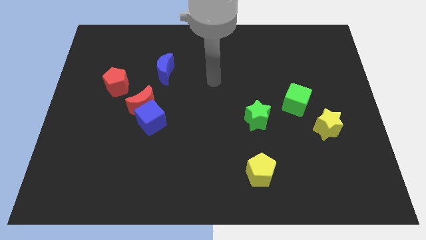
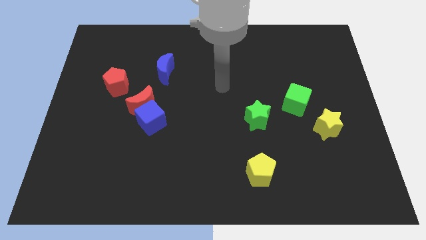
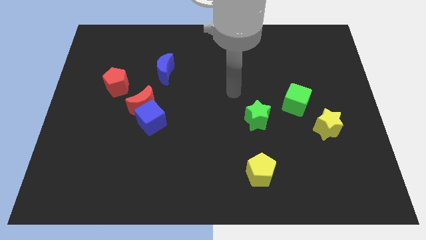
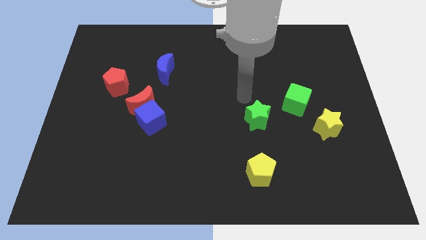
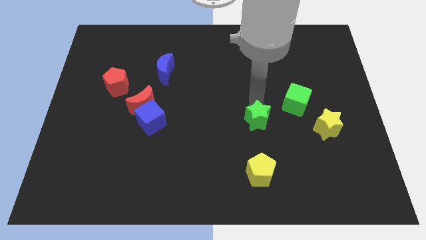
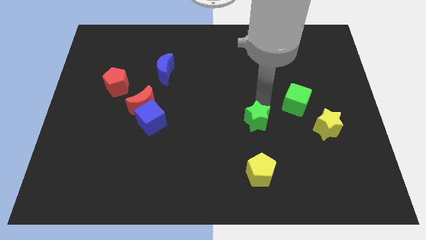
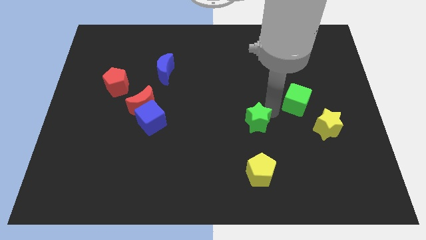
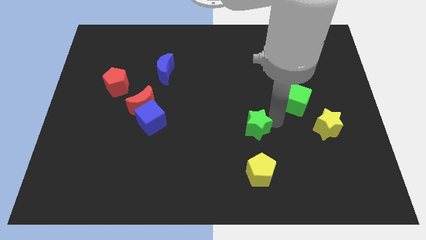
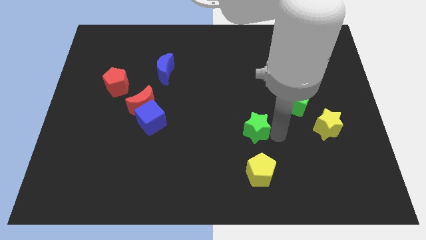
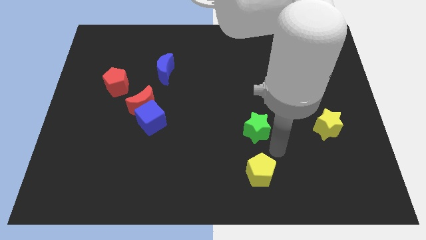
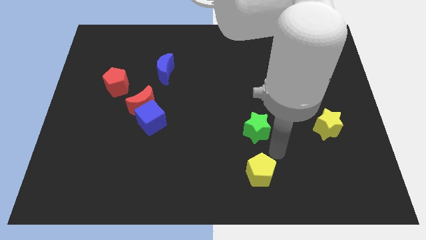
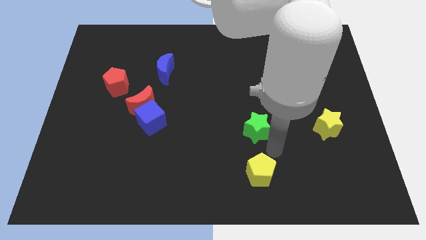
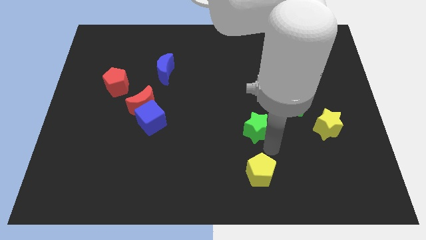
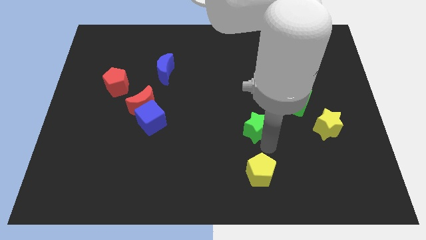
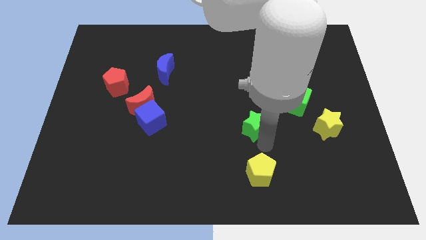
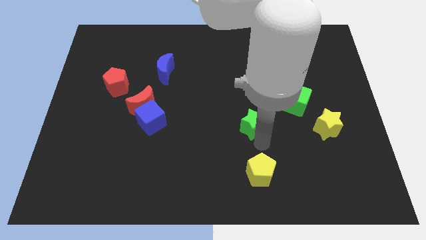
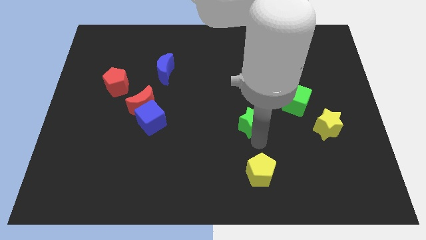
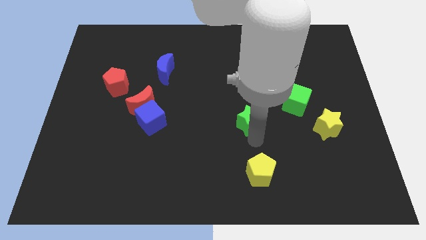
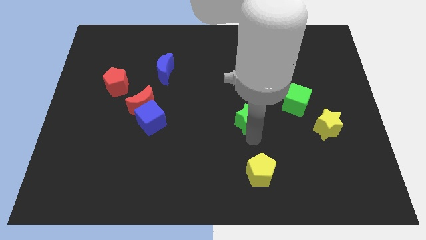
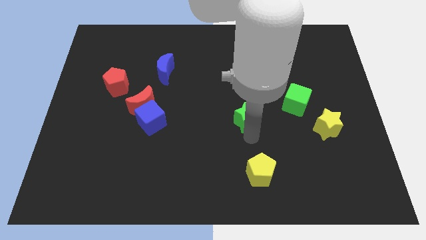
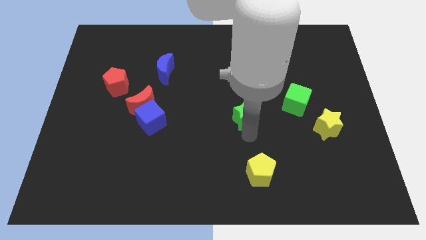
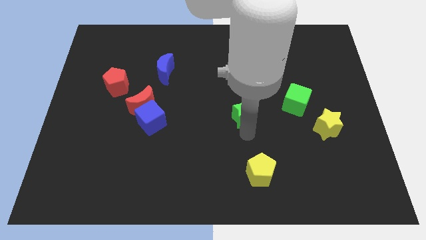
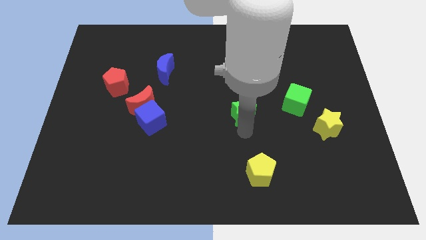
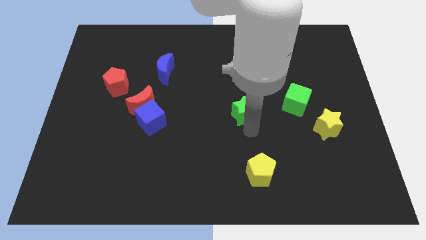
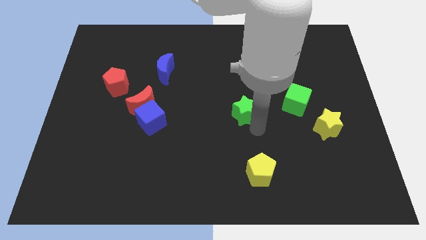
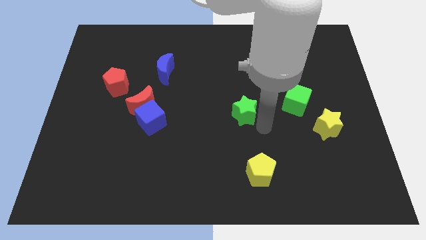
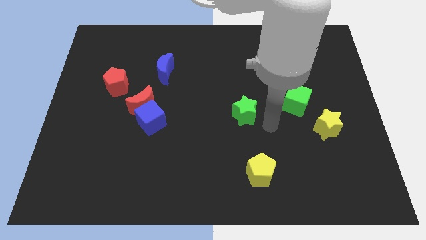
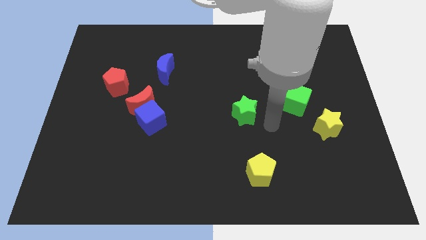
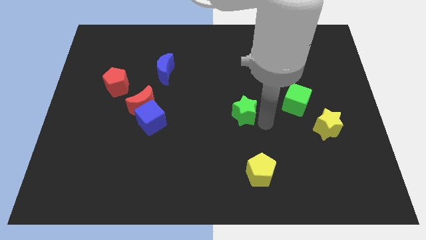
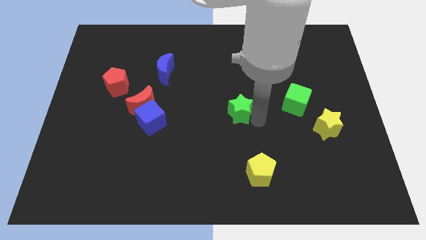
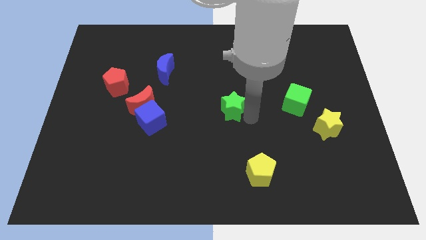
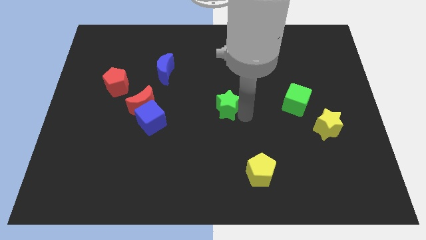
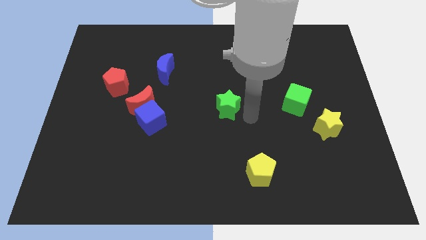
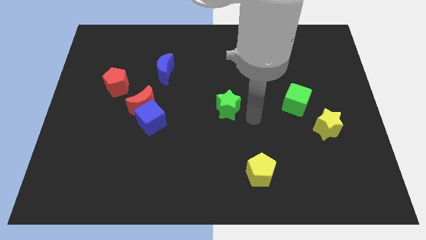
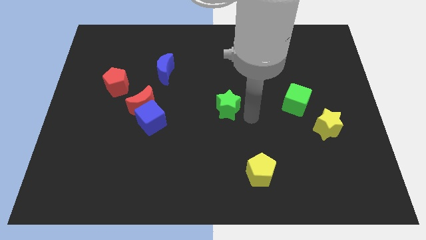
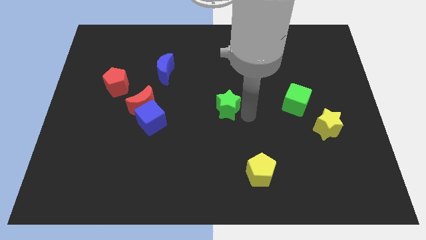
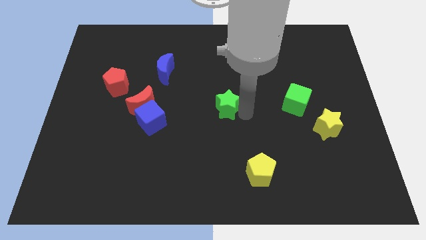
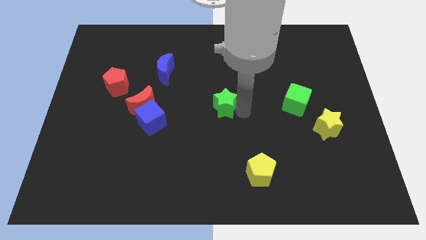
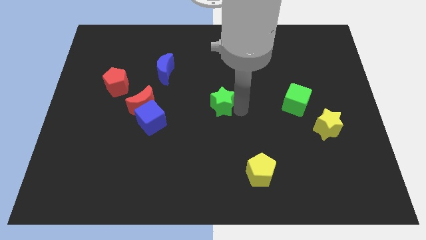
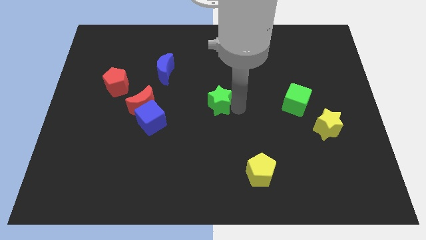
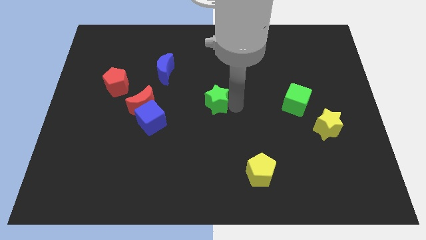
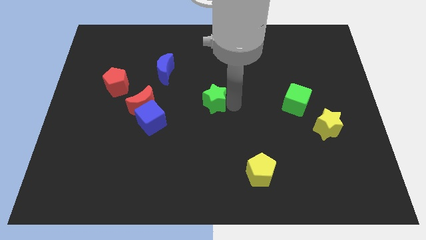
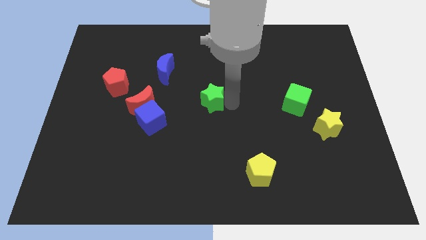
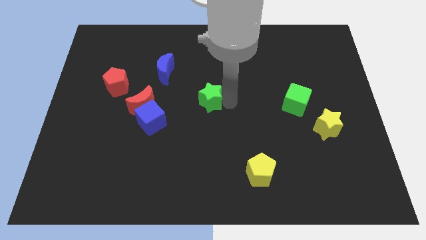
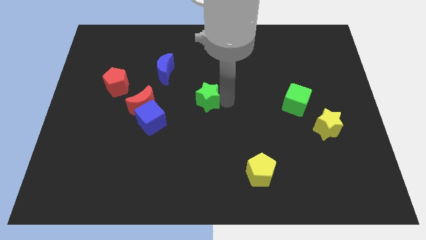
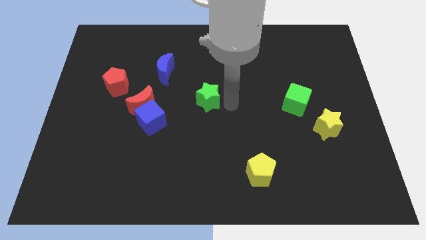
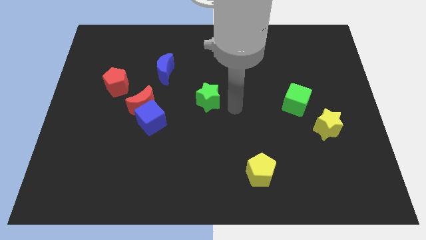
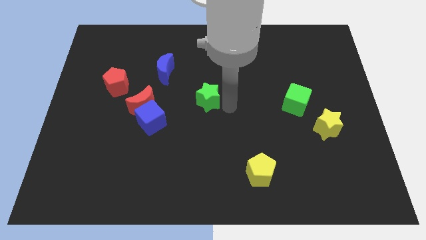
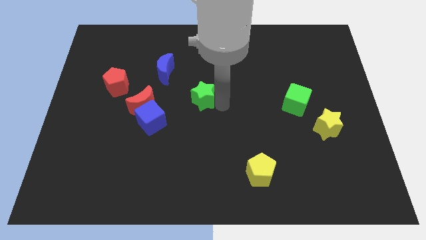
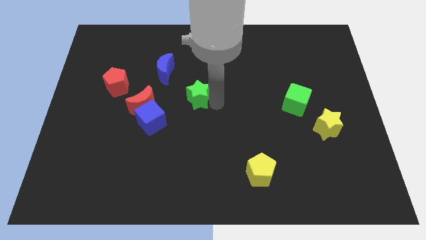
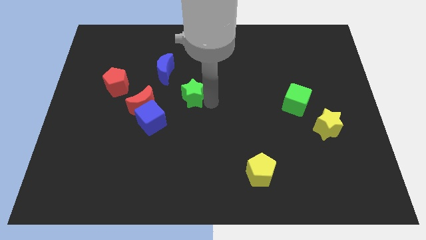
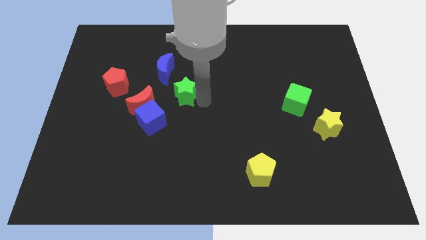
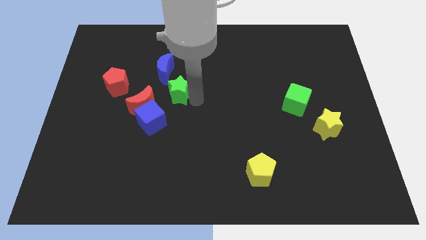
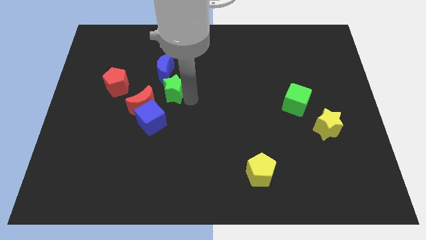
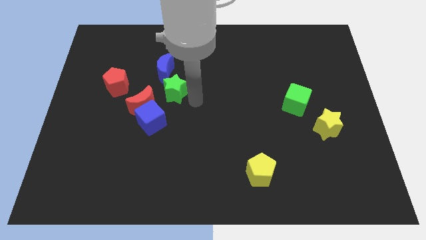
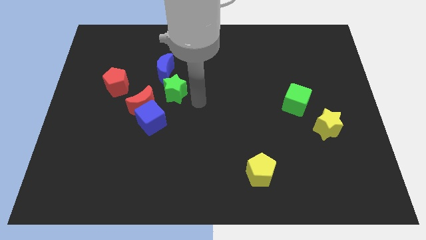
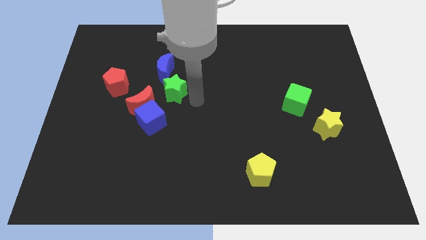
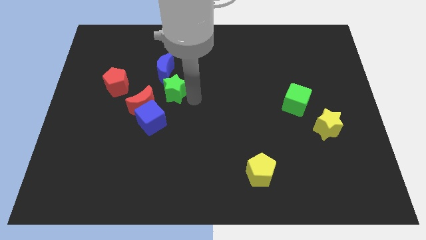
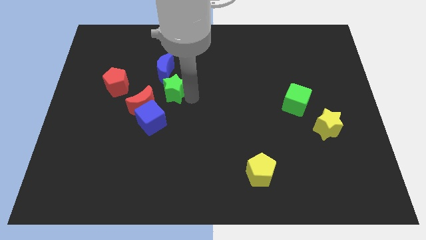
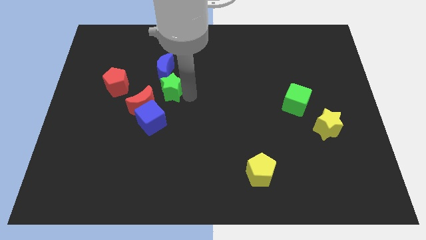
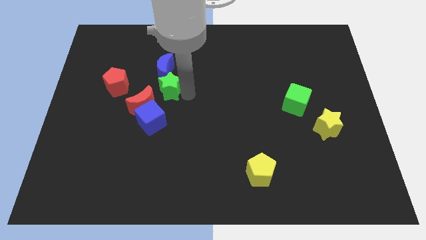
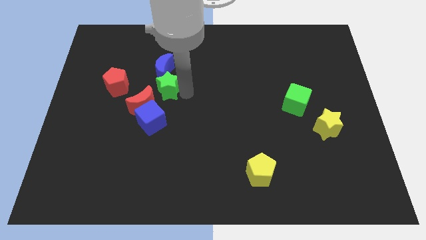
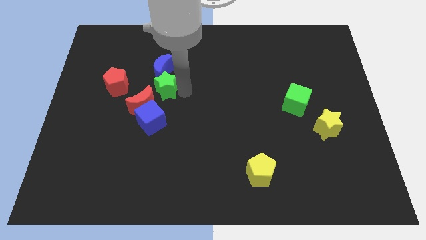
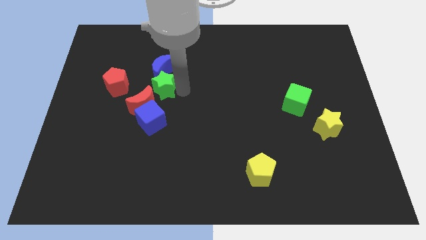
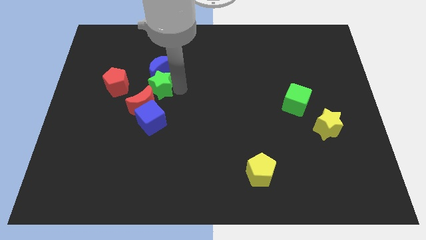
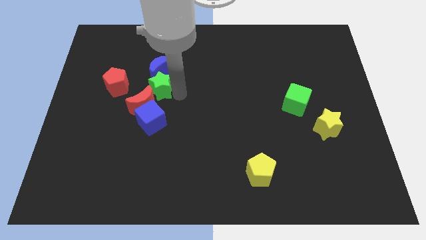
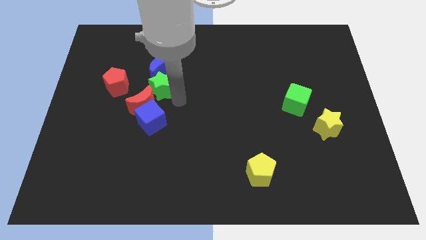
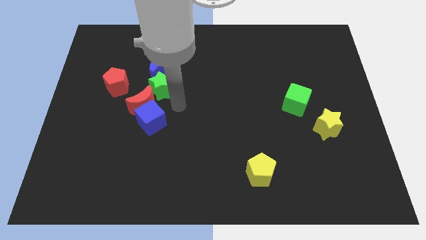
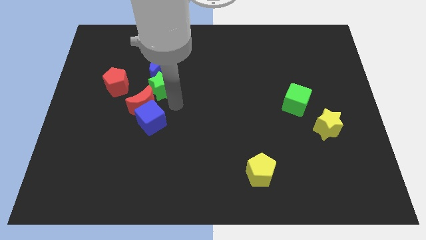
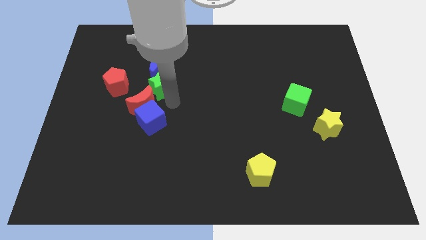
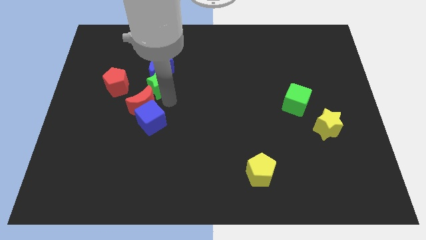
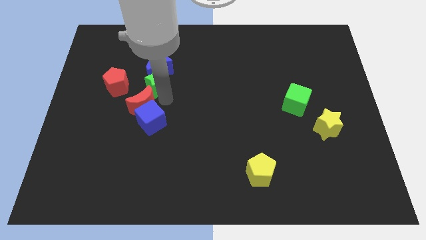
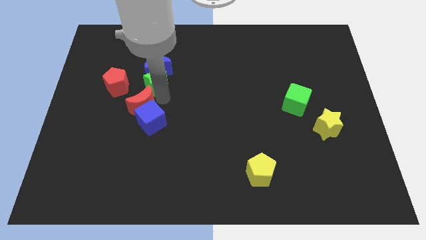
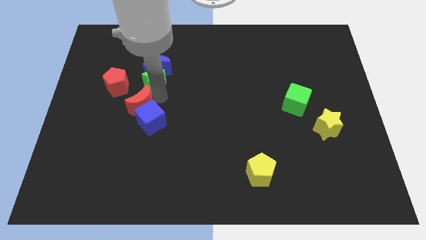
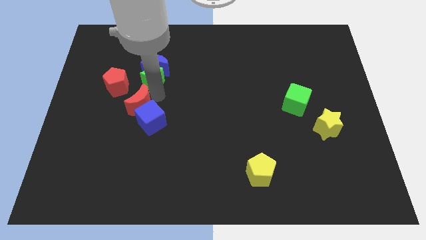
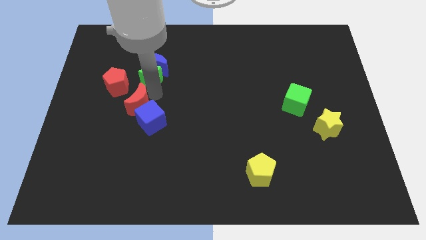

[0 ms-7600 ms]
slide the green star diagonally up and to the right of the red pentagon
